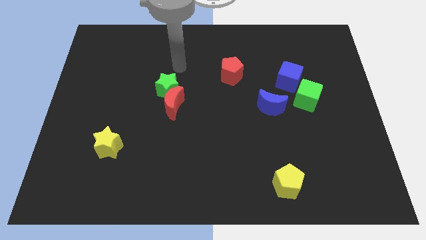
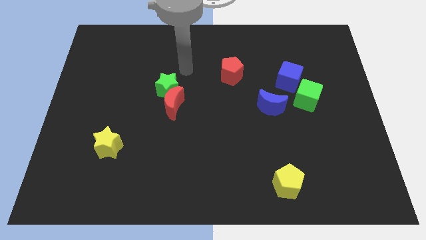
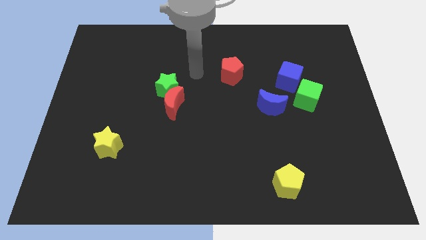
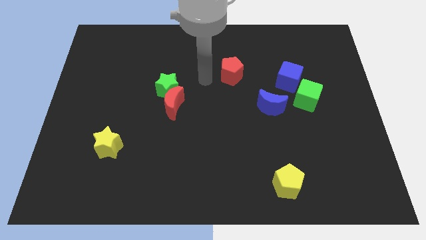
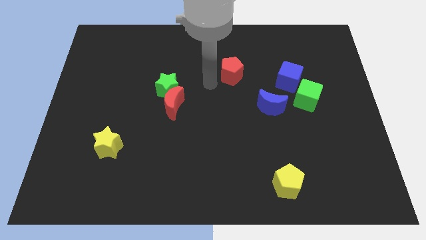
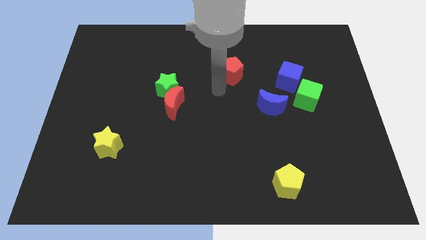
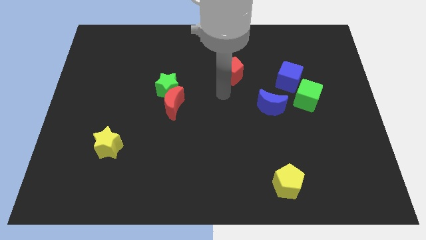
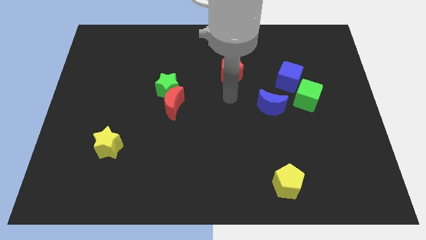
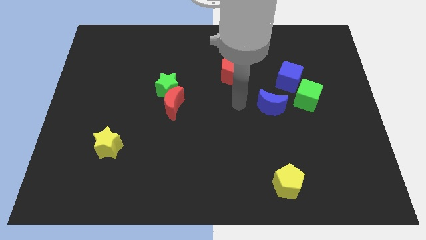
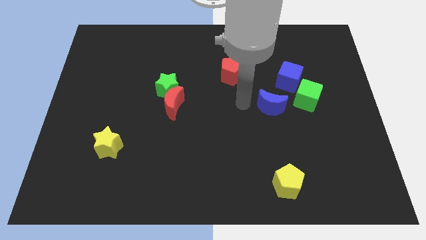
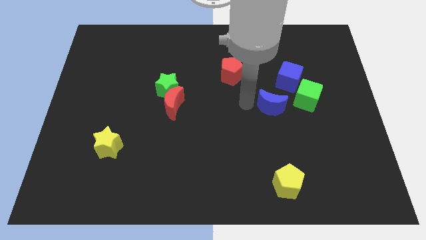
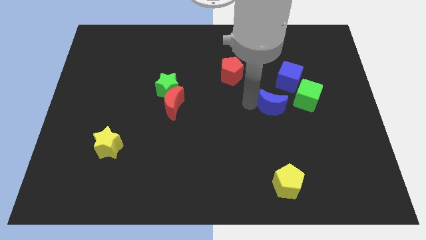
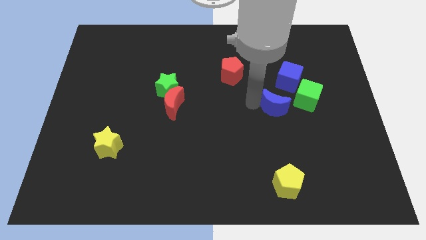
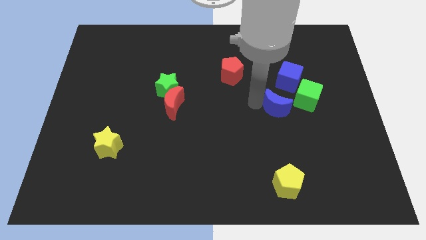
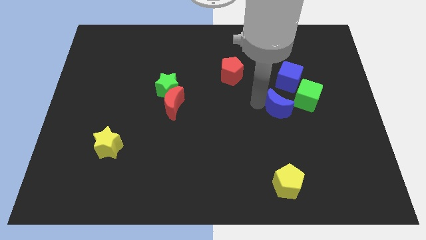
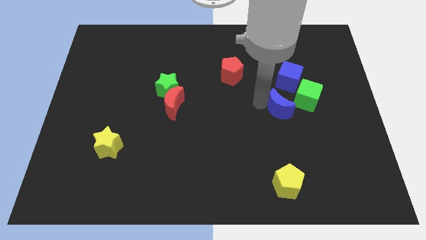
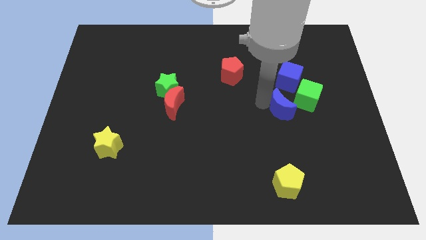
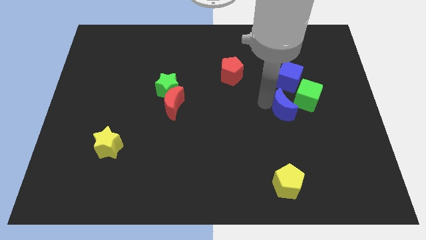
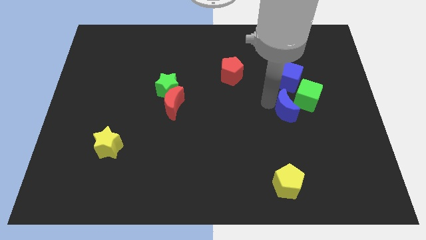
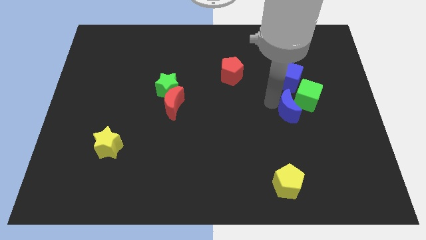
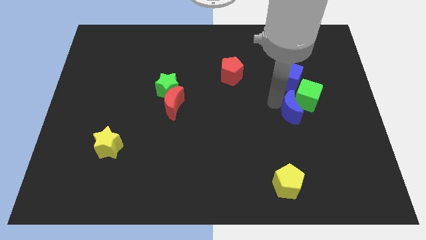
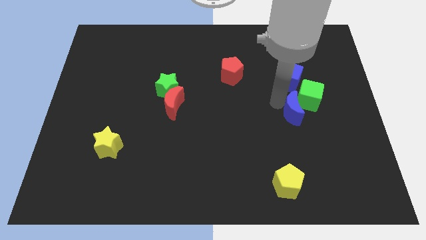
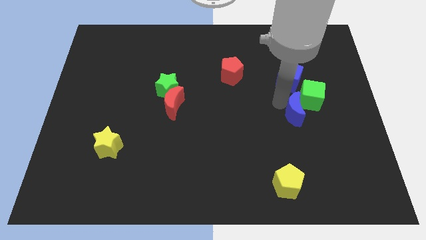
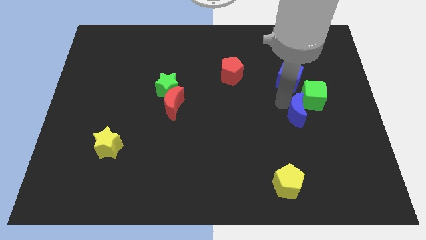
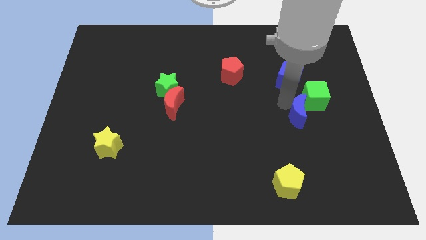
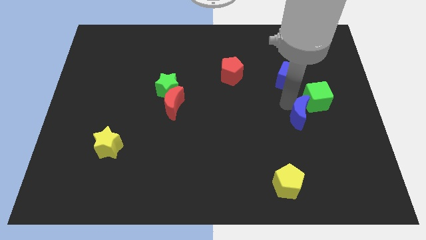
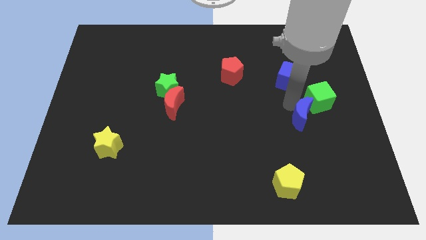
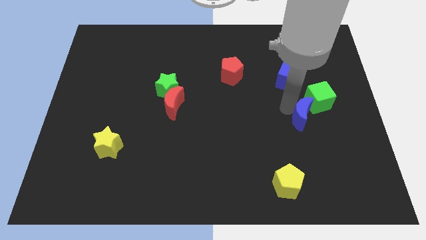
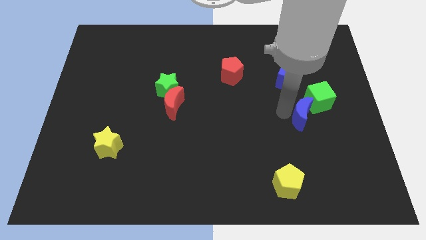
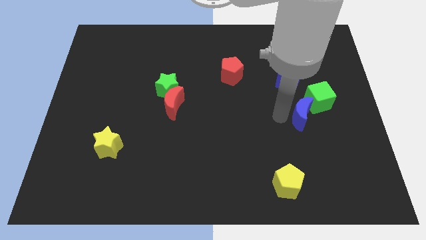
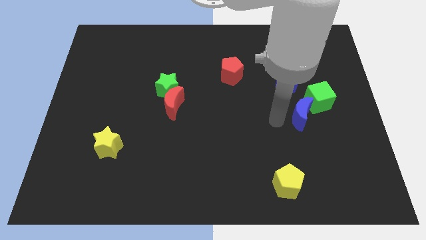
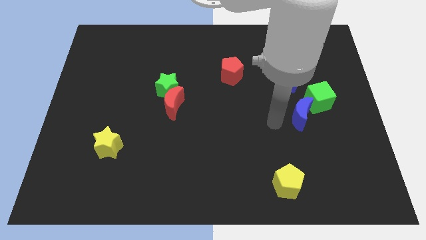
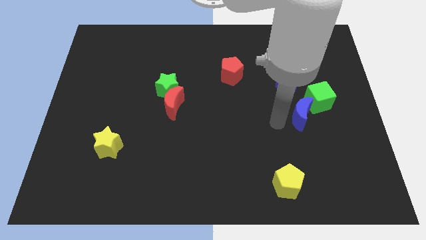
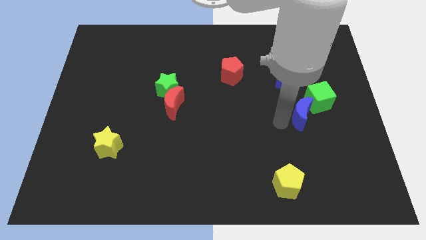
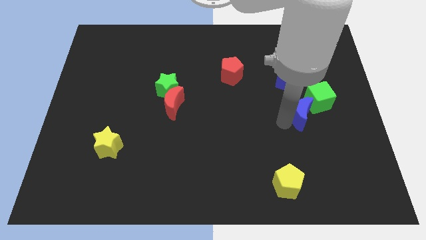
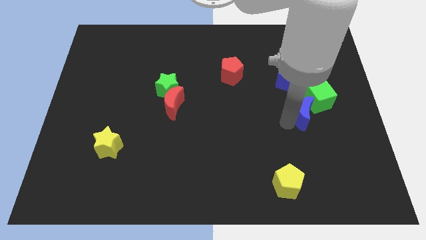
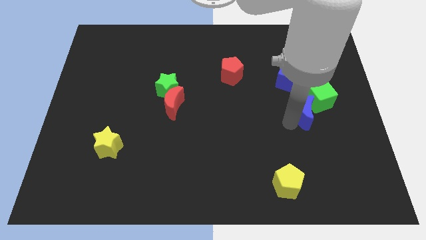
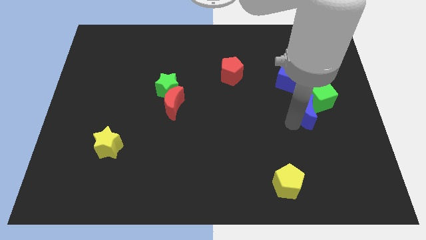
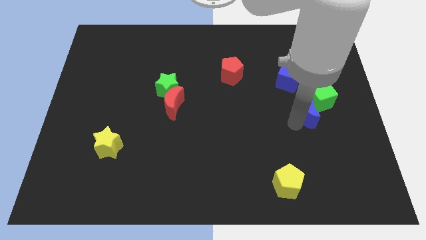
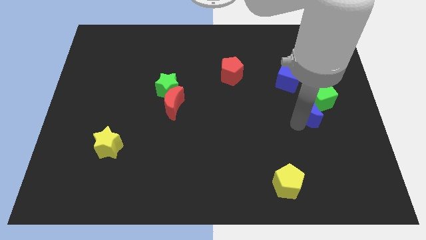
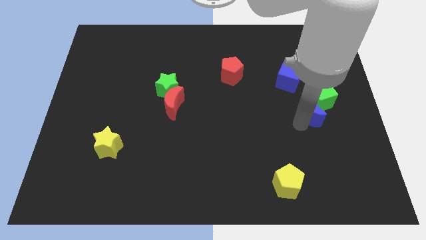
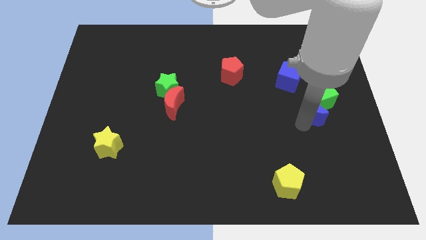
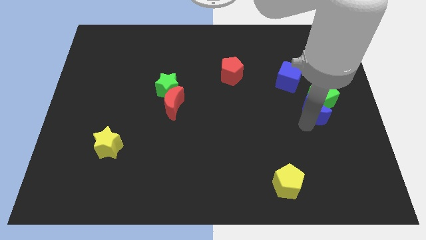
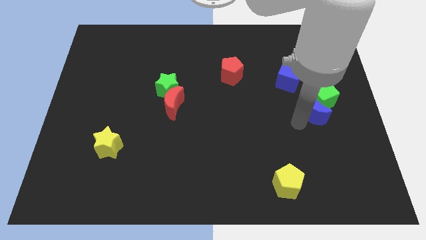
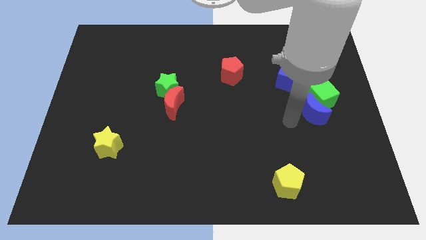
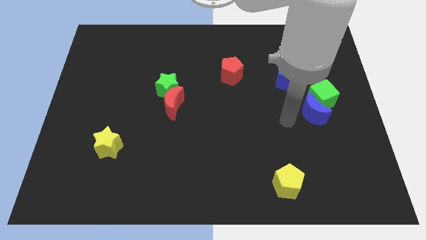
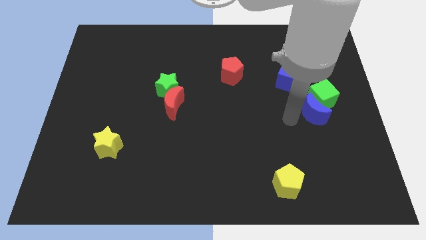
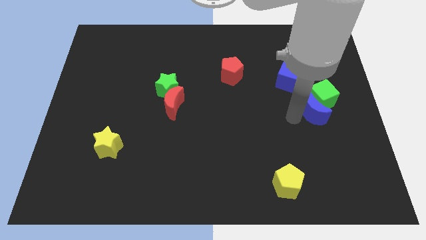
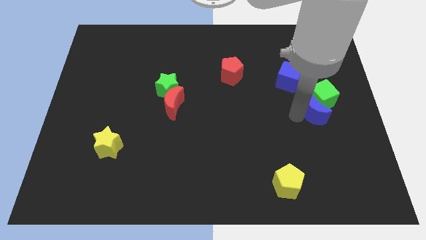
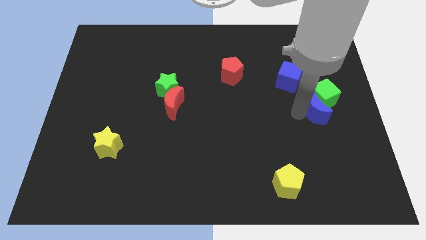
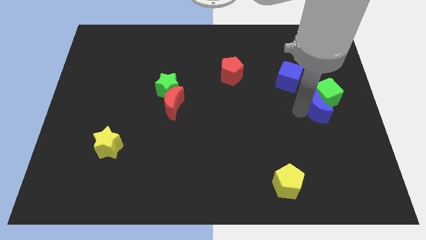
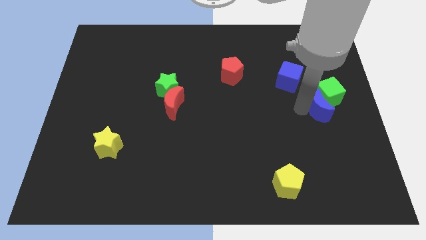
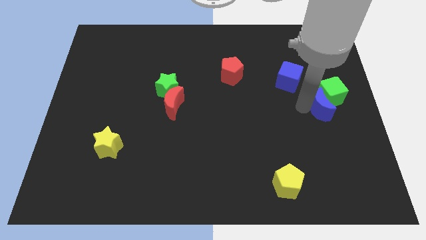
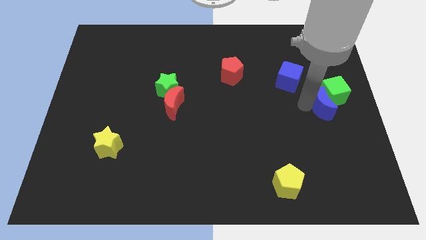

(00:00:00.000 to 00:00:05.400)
push the blue moon to the right side of the board

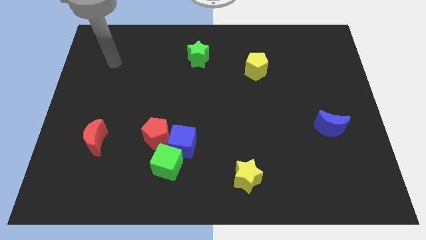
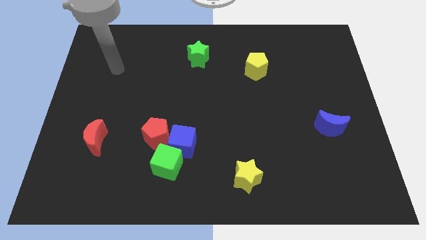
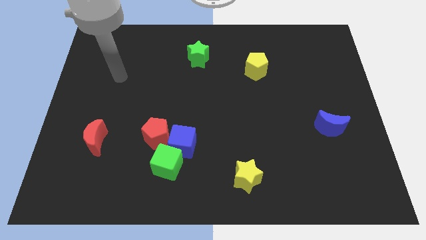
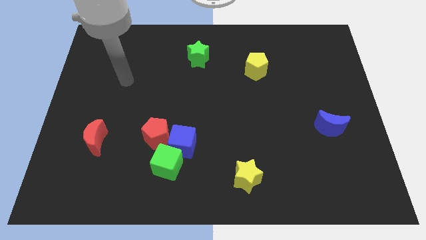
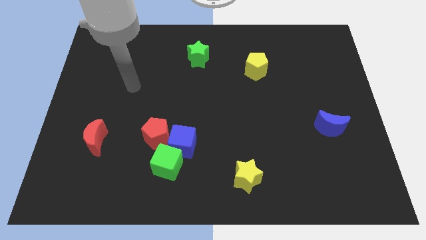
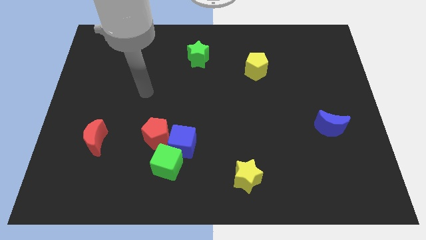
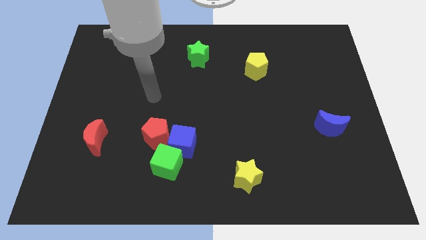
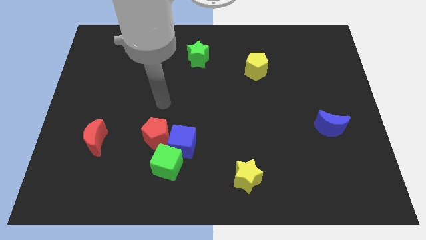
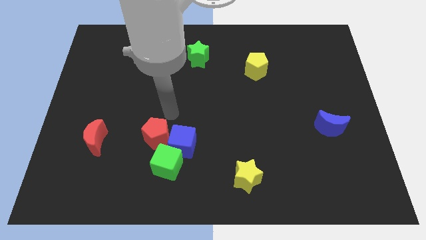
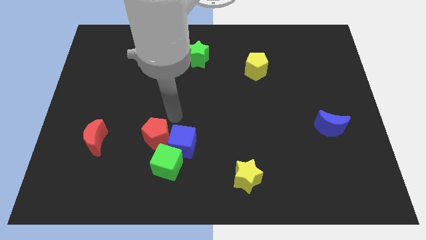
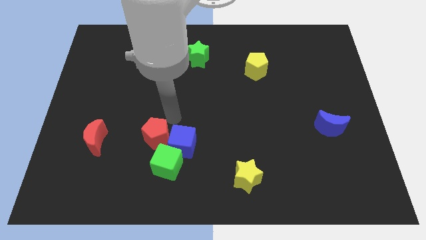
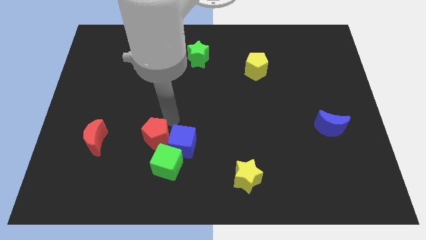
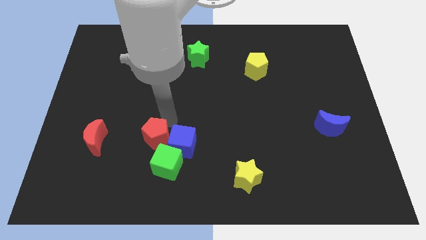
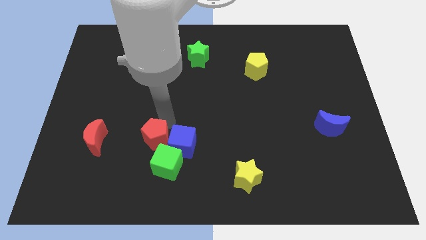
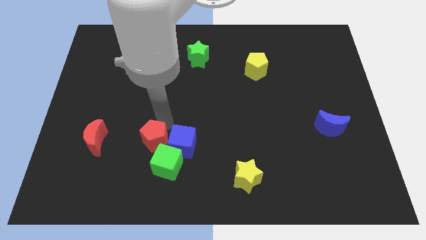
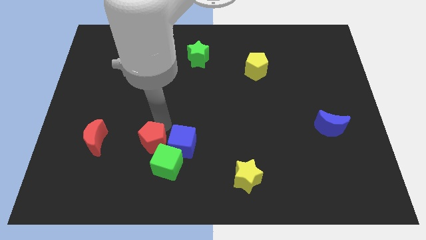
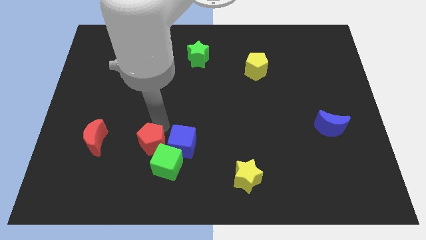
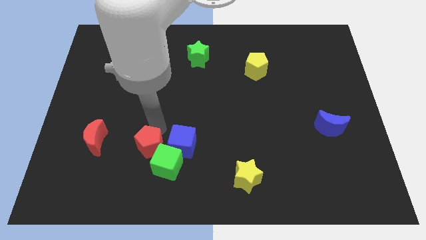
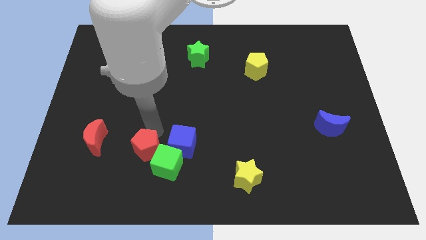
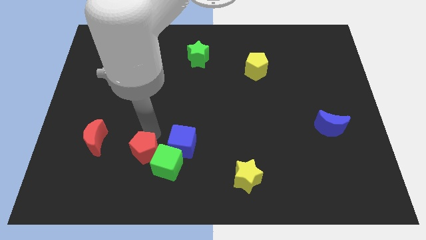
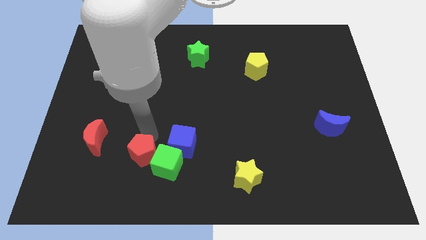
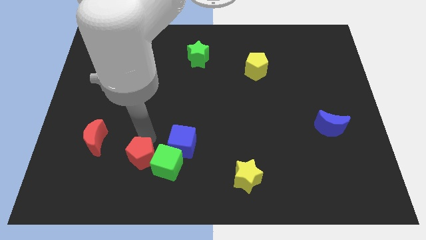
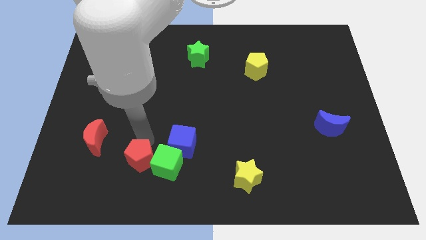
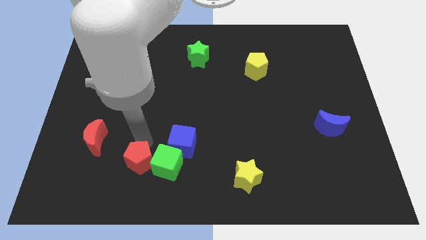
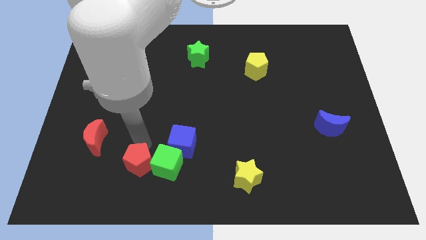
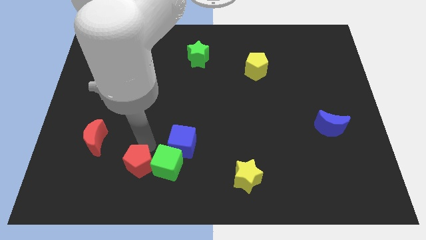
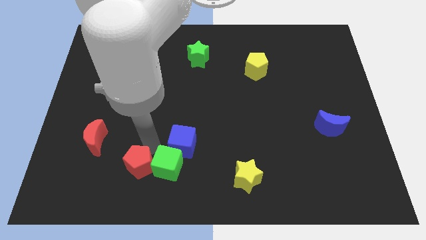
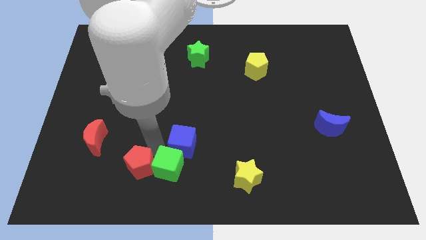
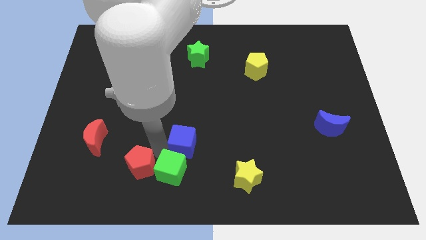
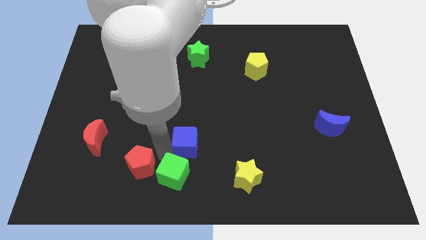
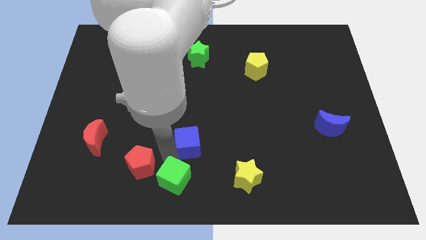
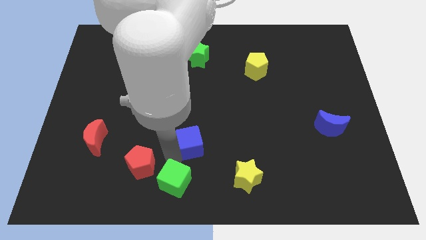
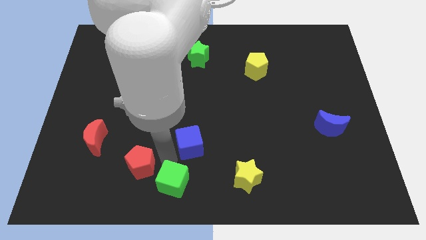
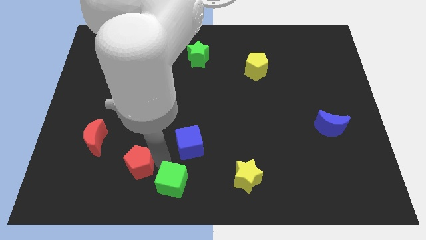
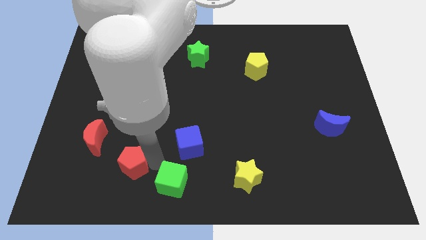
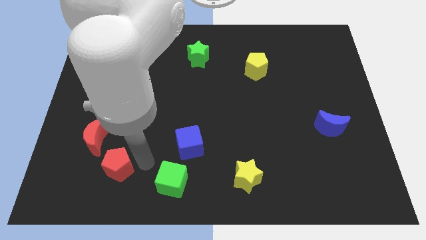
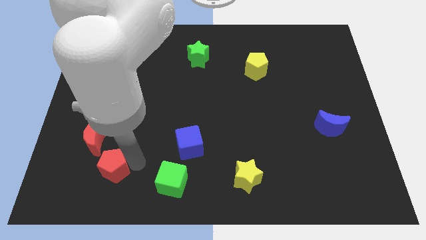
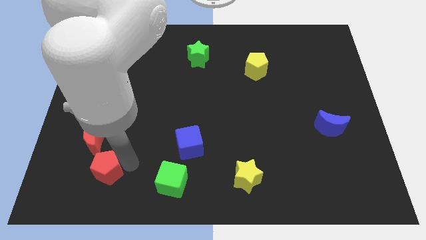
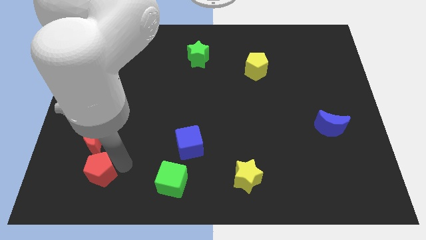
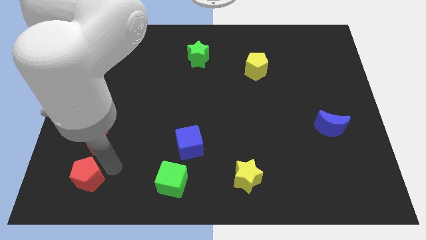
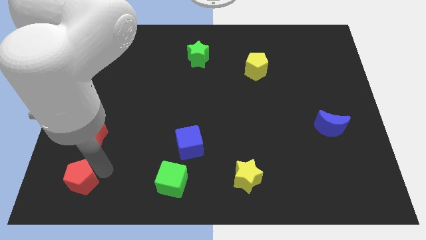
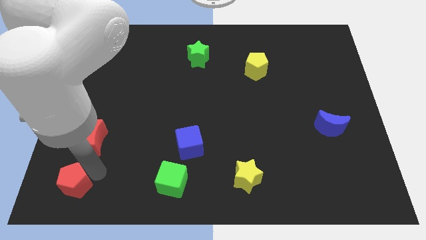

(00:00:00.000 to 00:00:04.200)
slide the red pentagon to the bottom left of the board
